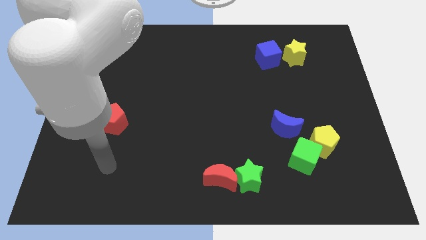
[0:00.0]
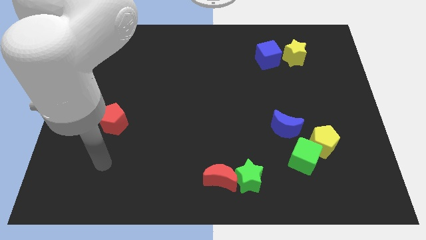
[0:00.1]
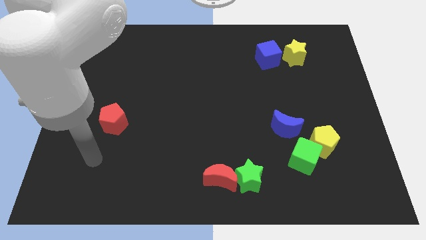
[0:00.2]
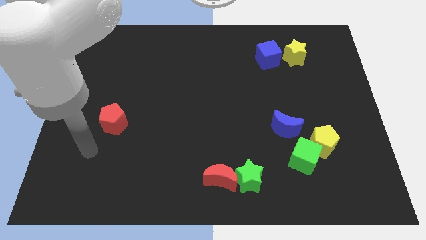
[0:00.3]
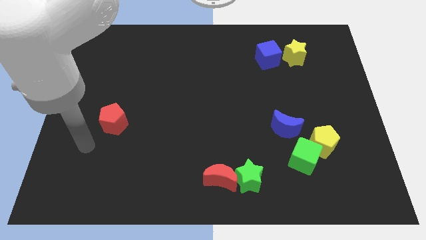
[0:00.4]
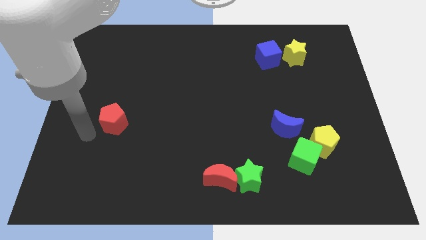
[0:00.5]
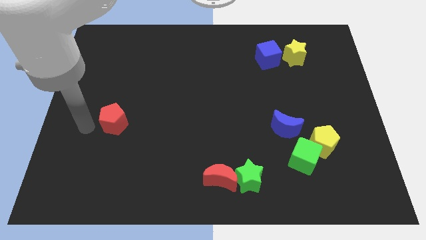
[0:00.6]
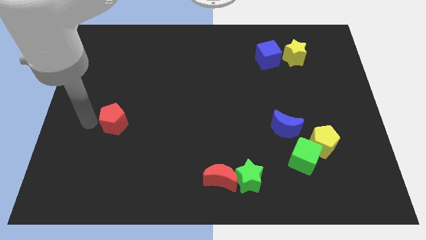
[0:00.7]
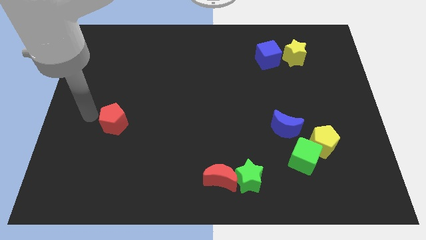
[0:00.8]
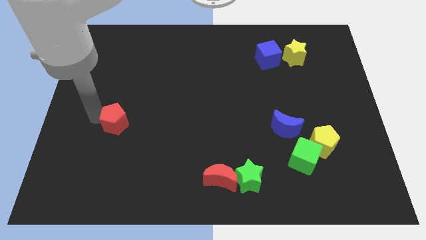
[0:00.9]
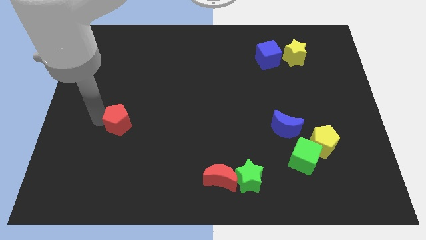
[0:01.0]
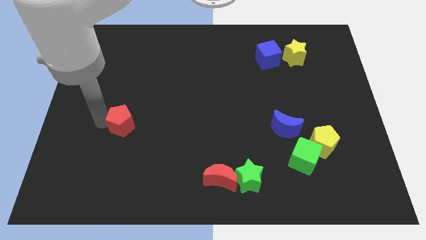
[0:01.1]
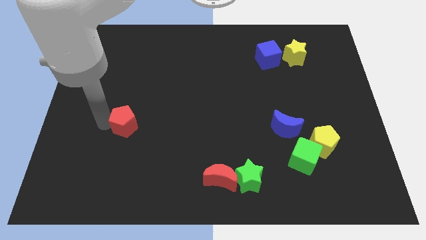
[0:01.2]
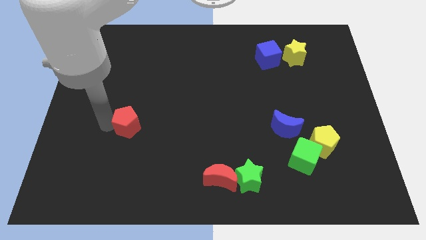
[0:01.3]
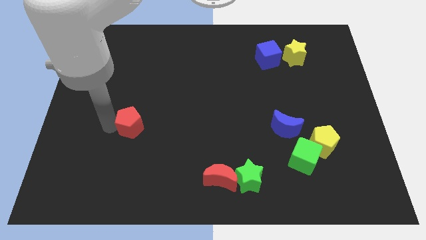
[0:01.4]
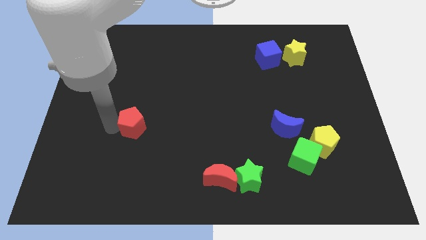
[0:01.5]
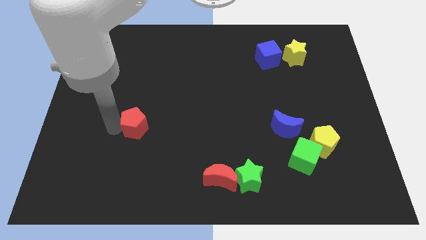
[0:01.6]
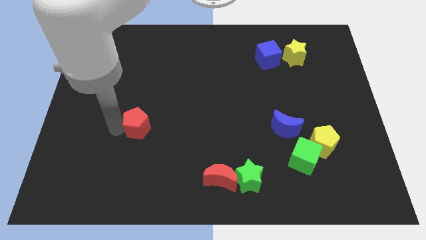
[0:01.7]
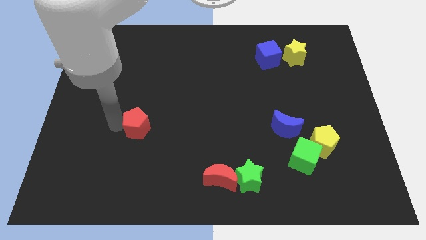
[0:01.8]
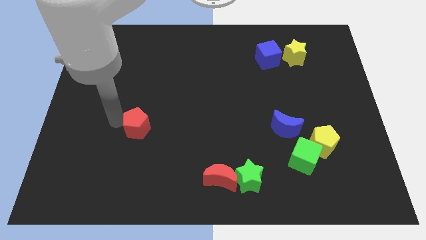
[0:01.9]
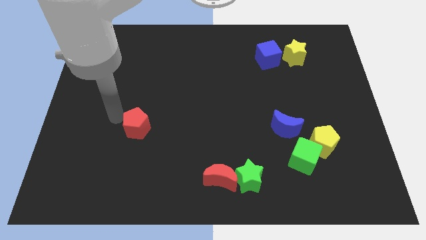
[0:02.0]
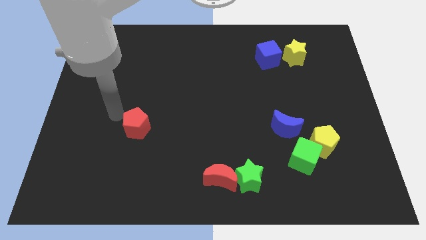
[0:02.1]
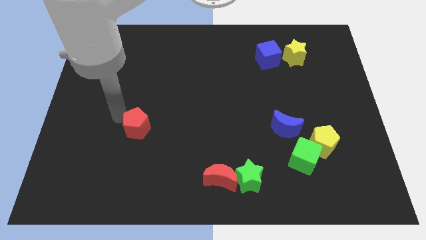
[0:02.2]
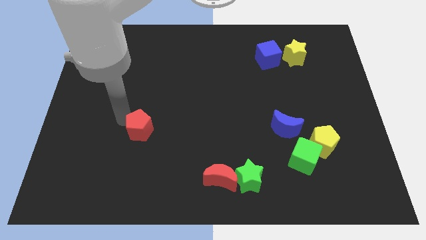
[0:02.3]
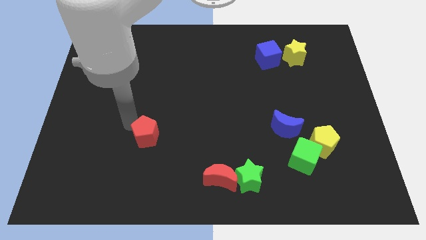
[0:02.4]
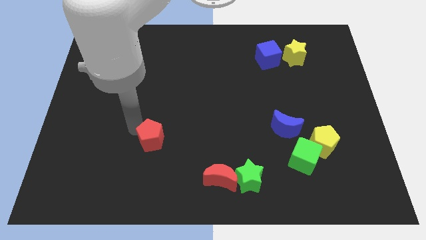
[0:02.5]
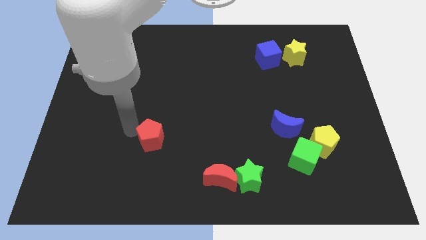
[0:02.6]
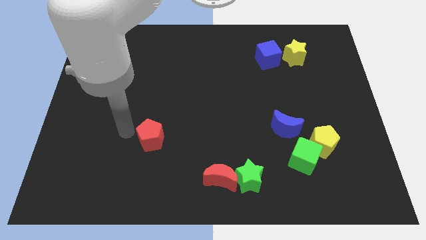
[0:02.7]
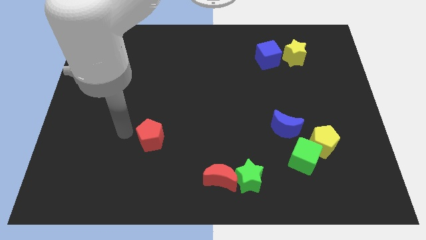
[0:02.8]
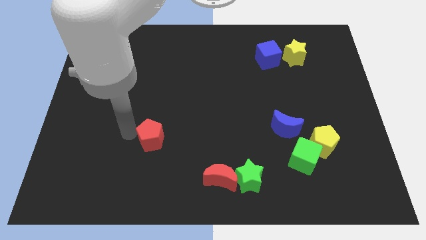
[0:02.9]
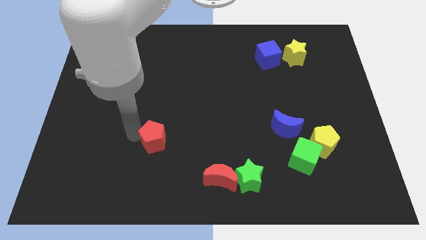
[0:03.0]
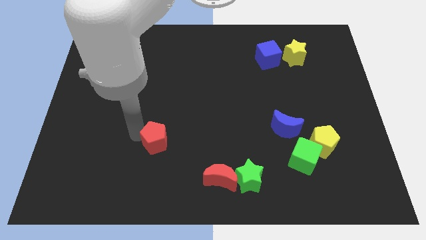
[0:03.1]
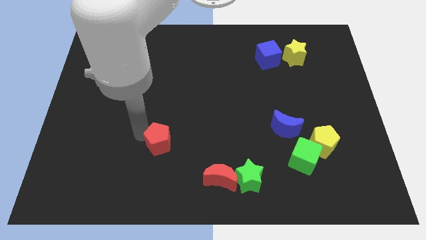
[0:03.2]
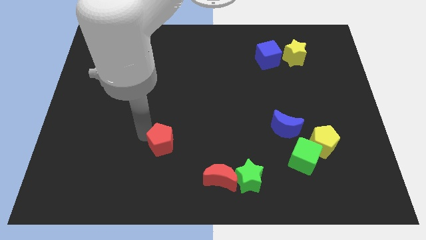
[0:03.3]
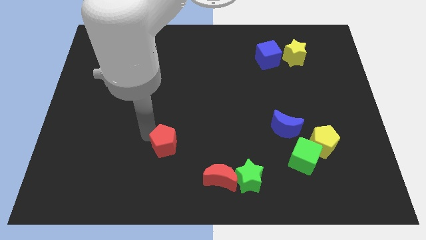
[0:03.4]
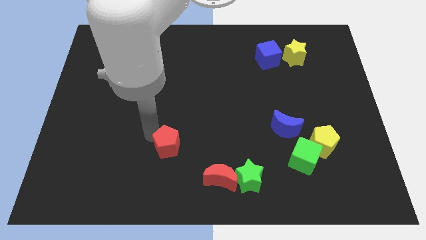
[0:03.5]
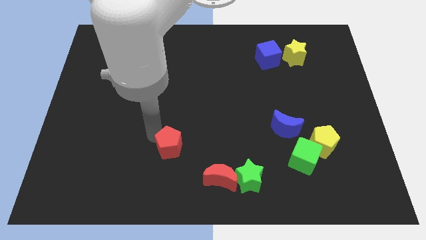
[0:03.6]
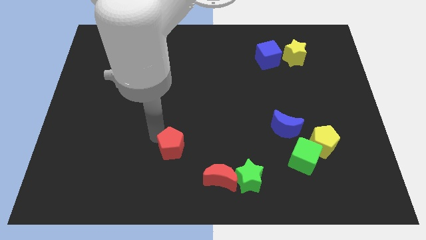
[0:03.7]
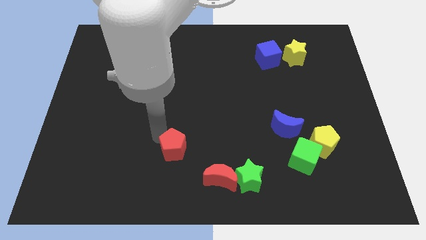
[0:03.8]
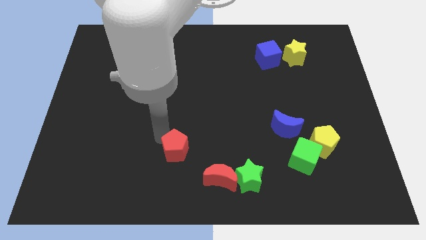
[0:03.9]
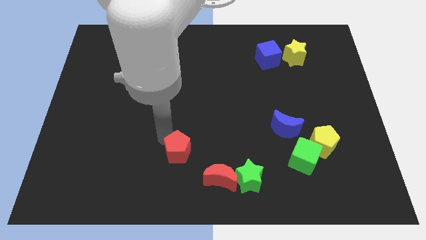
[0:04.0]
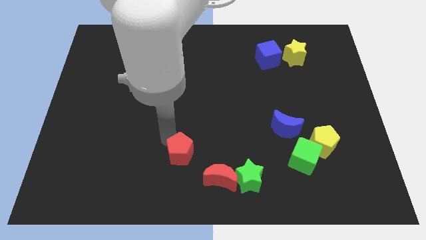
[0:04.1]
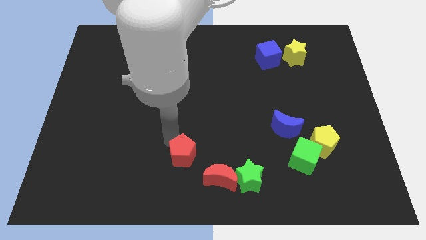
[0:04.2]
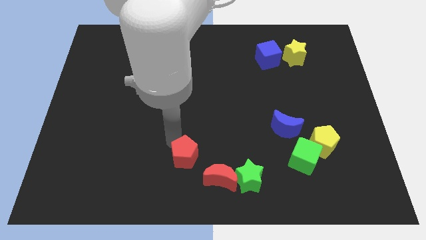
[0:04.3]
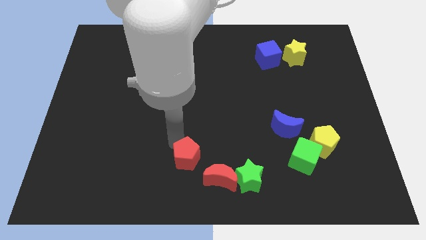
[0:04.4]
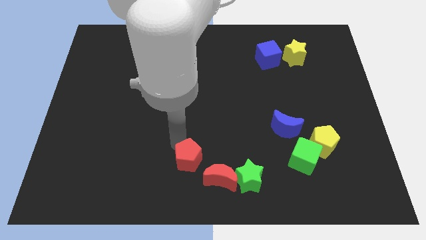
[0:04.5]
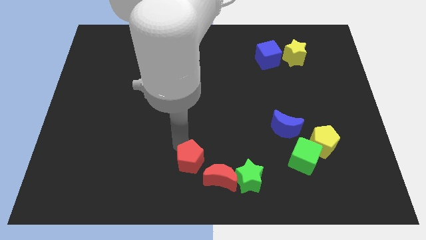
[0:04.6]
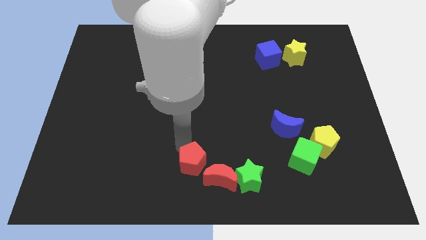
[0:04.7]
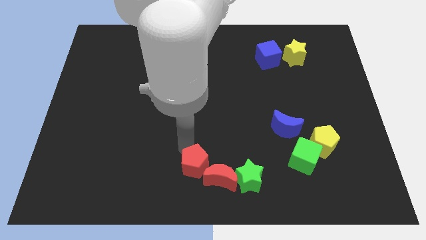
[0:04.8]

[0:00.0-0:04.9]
put the red pentagon towards the red moon

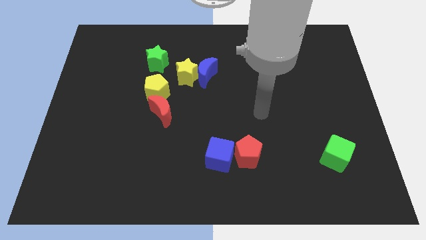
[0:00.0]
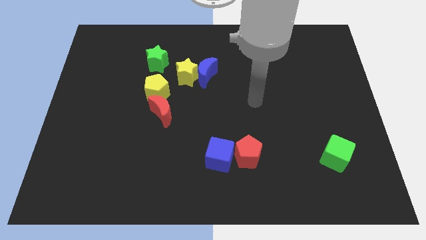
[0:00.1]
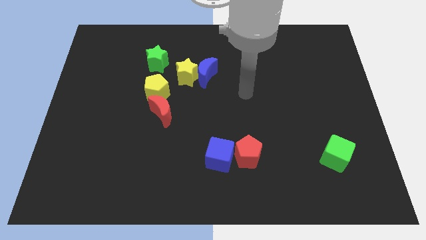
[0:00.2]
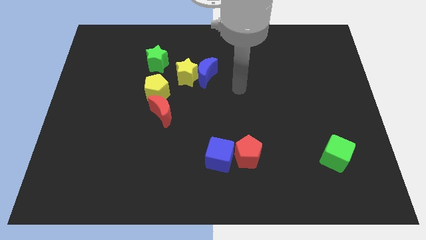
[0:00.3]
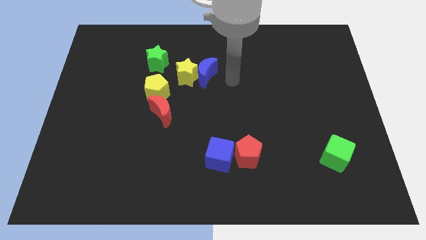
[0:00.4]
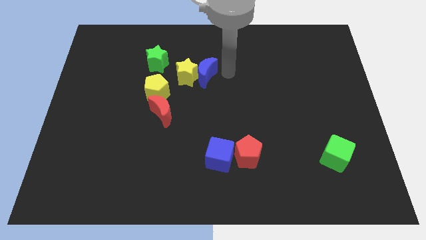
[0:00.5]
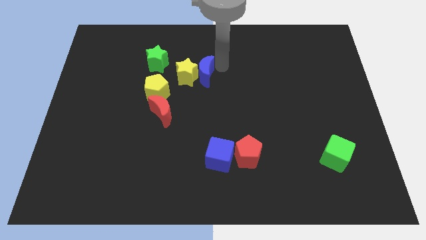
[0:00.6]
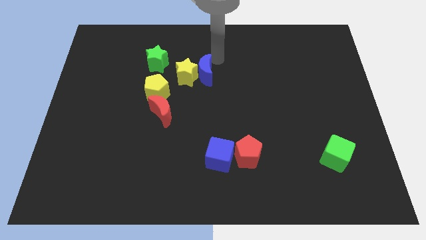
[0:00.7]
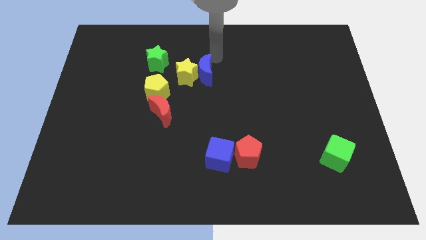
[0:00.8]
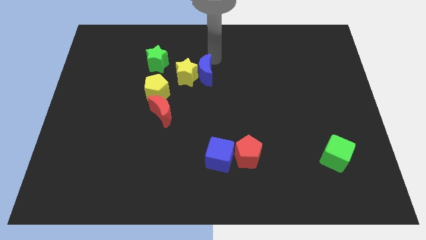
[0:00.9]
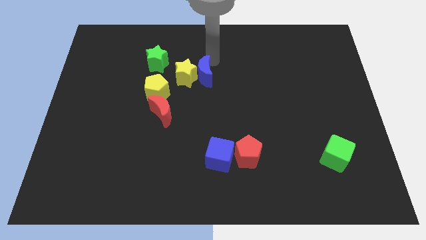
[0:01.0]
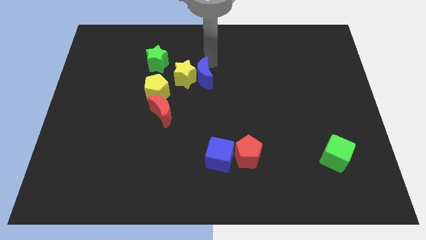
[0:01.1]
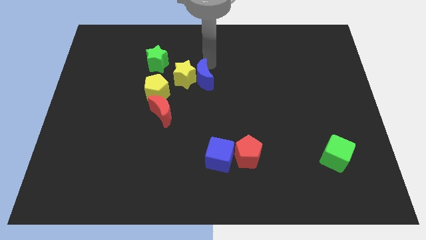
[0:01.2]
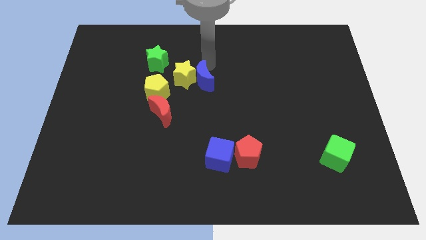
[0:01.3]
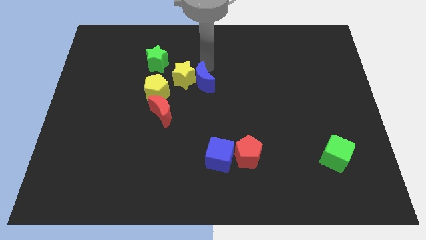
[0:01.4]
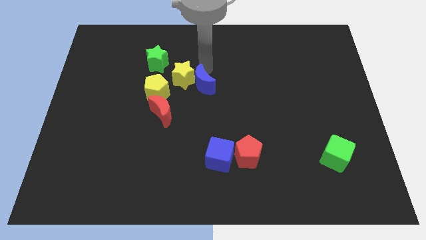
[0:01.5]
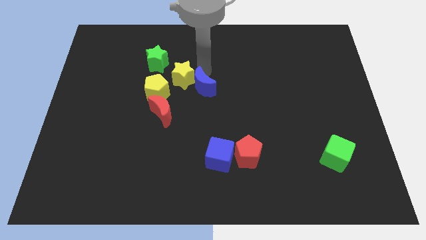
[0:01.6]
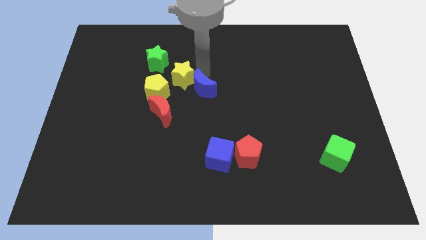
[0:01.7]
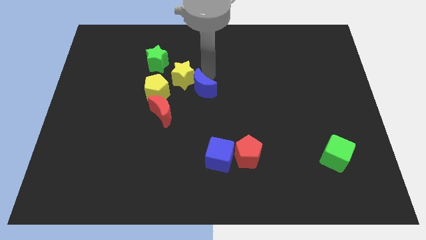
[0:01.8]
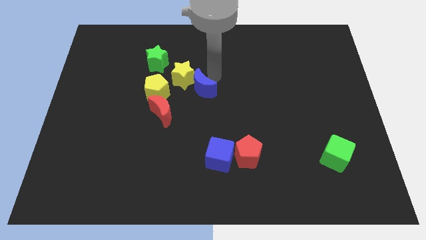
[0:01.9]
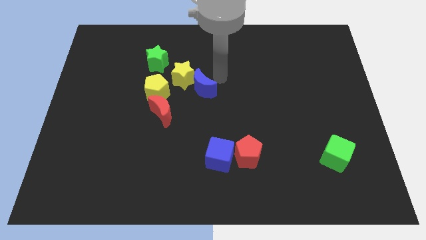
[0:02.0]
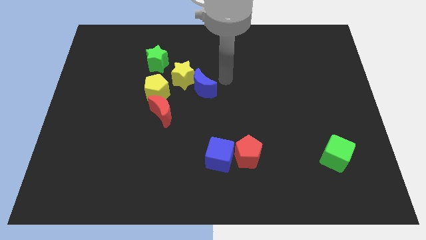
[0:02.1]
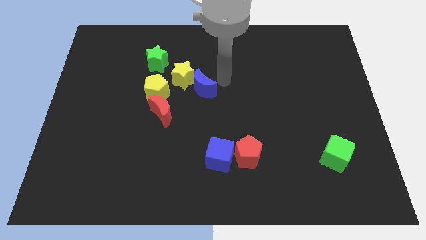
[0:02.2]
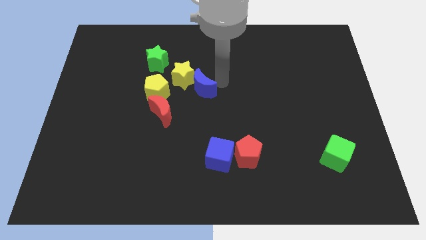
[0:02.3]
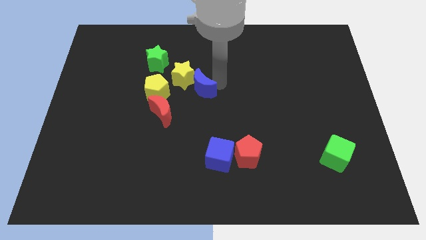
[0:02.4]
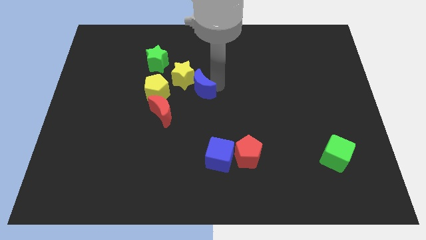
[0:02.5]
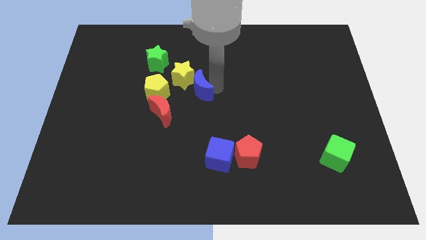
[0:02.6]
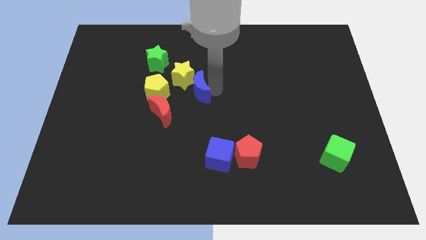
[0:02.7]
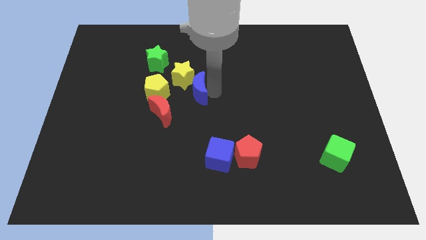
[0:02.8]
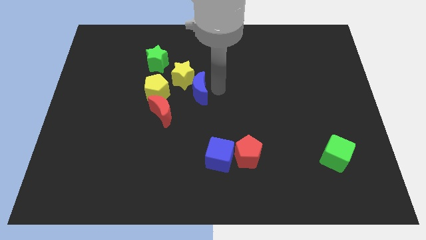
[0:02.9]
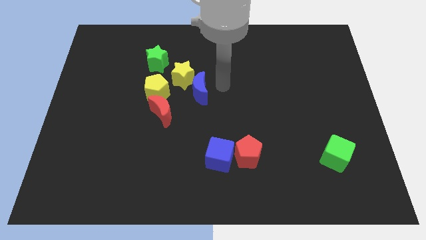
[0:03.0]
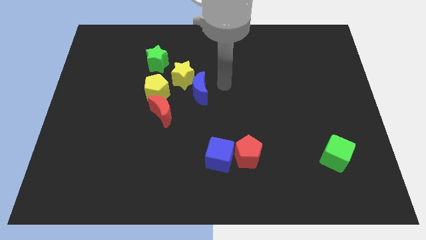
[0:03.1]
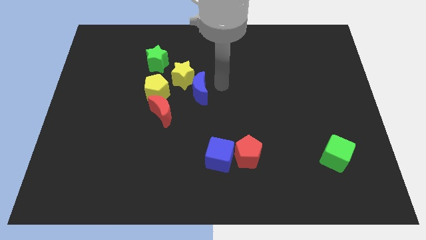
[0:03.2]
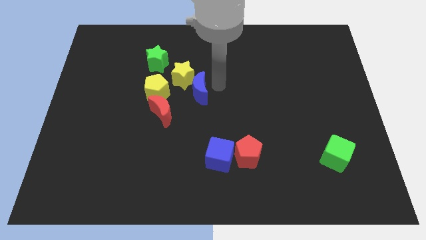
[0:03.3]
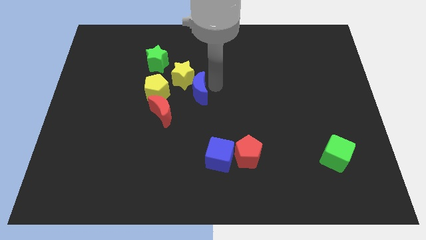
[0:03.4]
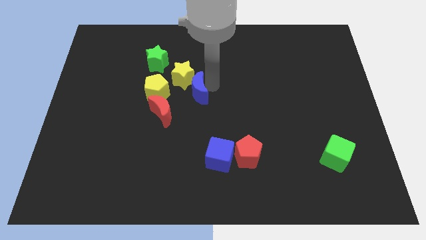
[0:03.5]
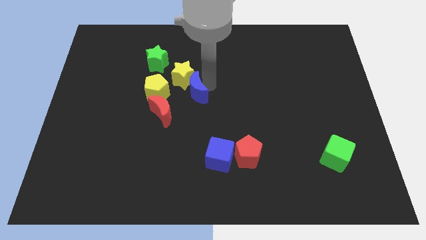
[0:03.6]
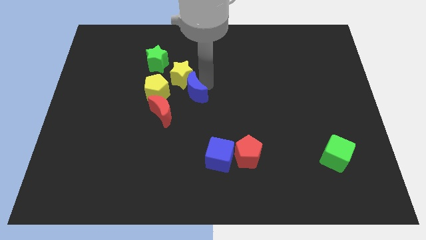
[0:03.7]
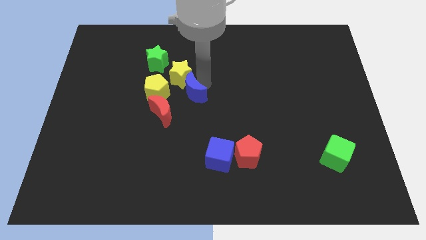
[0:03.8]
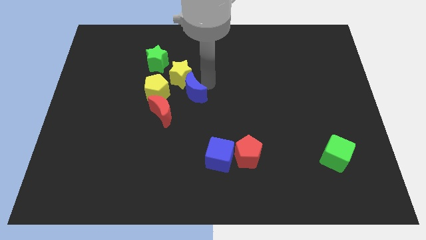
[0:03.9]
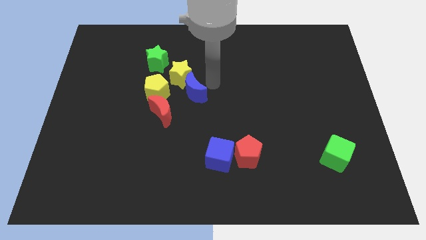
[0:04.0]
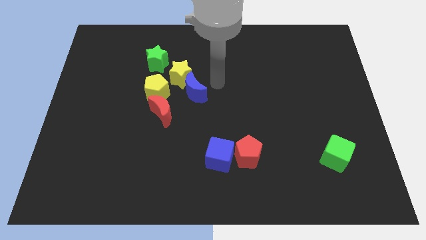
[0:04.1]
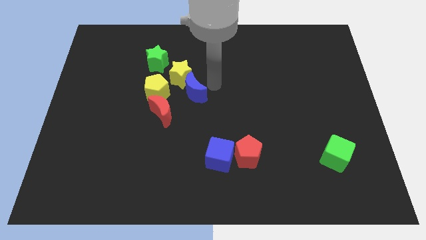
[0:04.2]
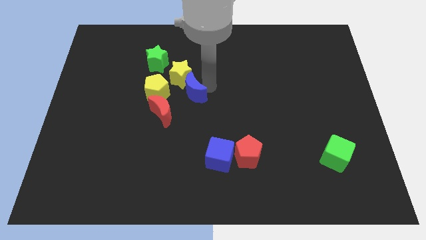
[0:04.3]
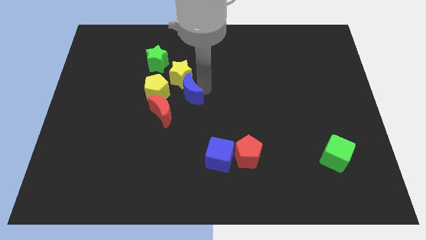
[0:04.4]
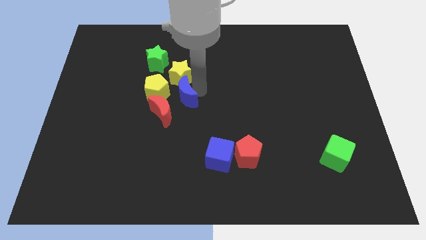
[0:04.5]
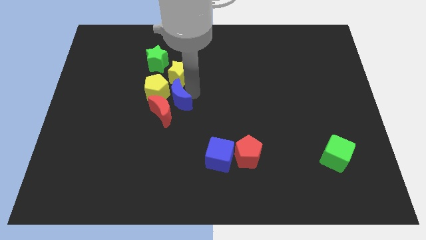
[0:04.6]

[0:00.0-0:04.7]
put the blue moon to the red moon
